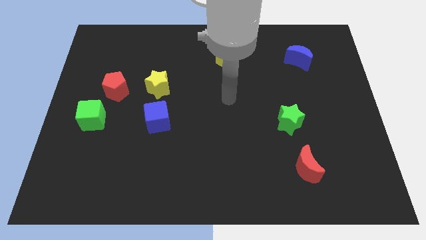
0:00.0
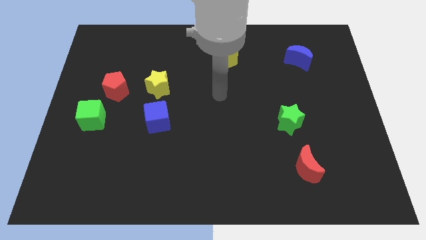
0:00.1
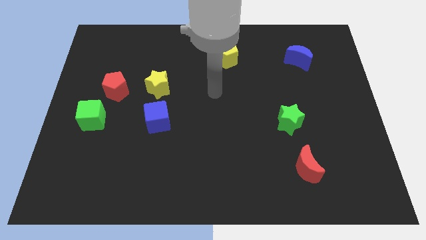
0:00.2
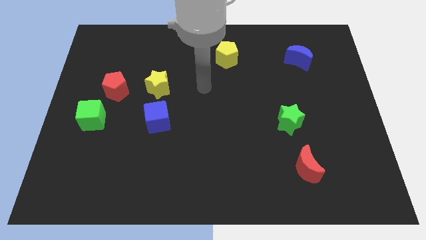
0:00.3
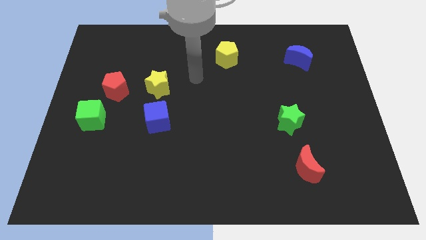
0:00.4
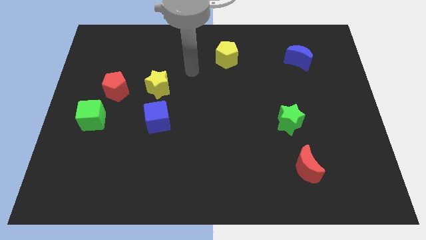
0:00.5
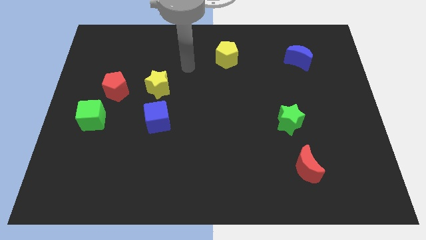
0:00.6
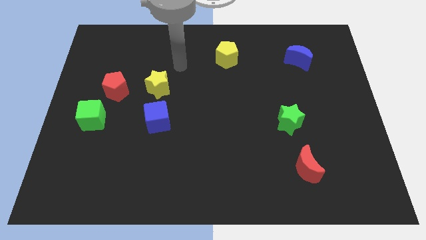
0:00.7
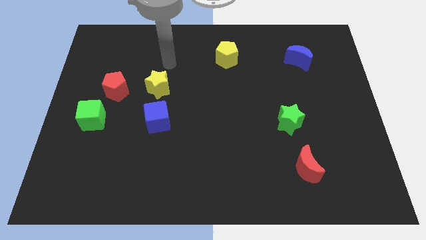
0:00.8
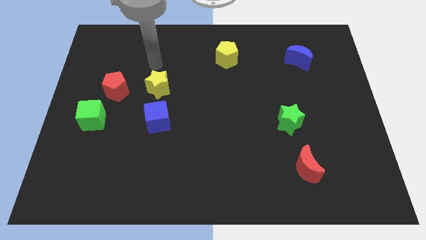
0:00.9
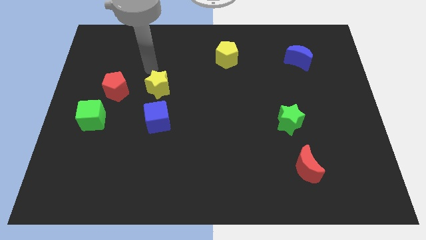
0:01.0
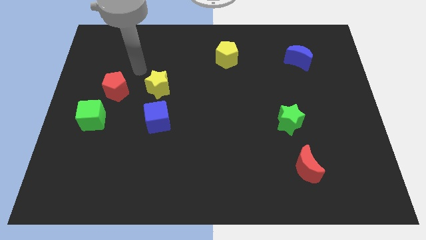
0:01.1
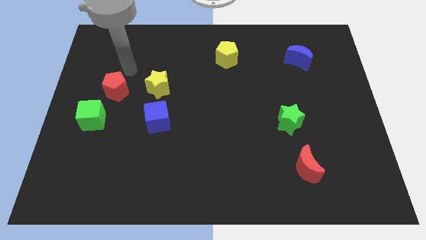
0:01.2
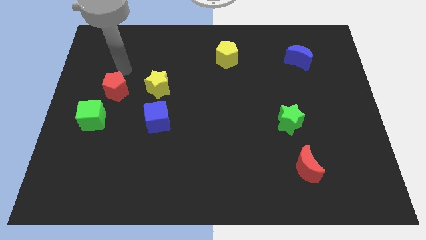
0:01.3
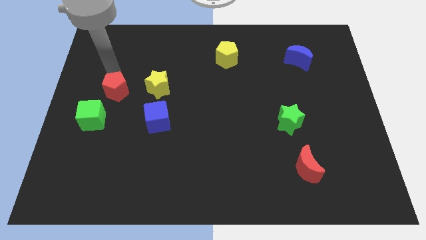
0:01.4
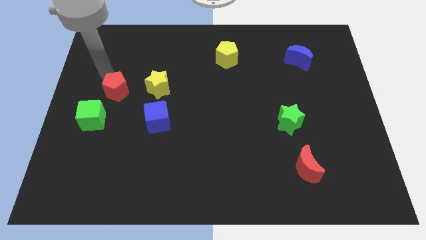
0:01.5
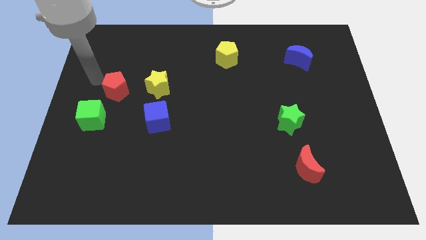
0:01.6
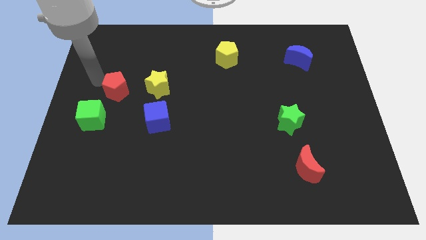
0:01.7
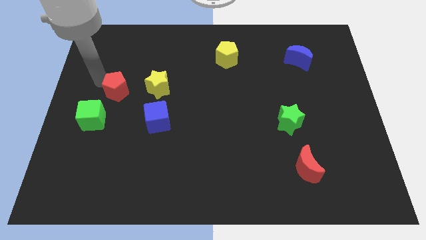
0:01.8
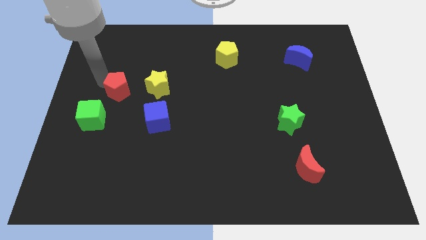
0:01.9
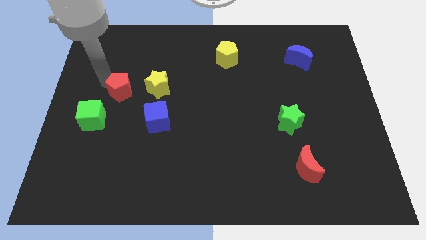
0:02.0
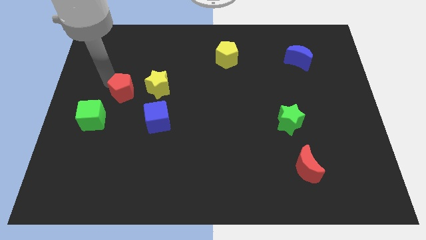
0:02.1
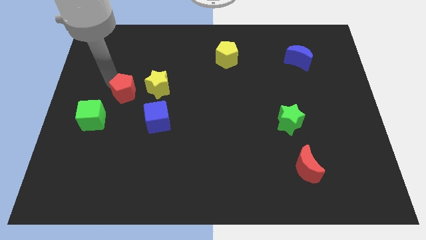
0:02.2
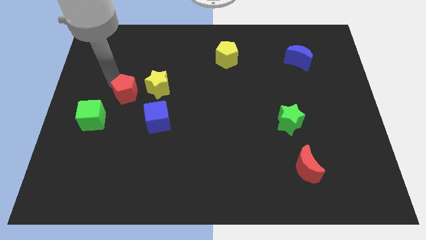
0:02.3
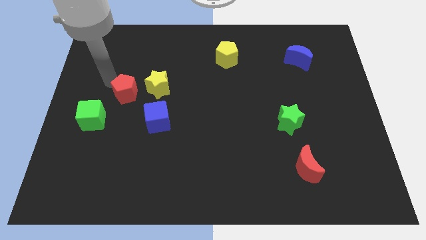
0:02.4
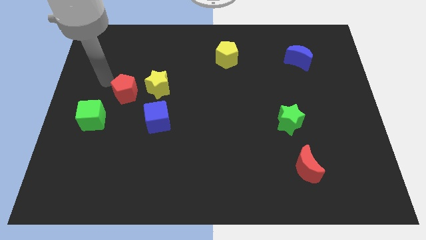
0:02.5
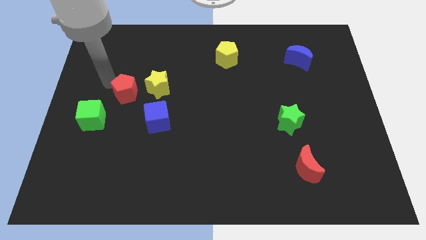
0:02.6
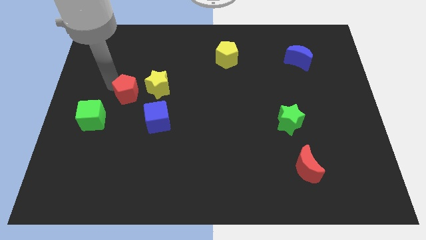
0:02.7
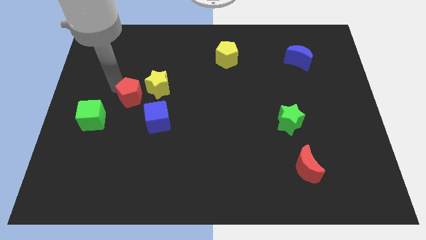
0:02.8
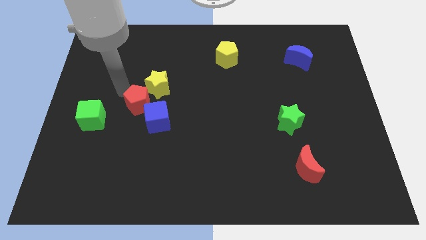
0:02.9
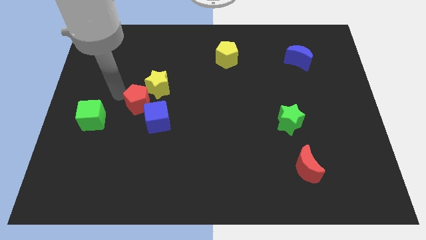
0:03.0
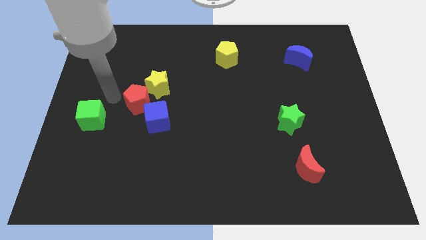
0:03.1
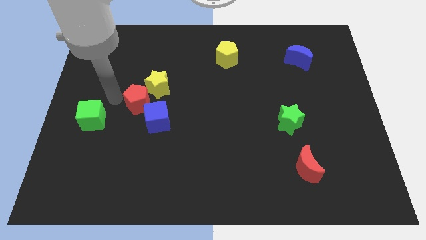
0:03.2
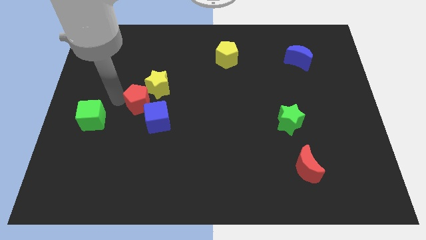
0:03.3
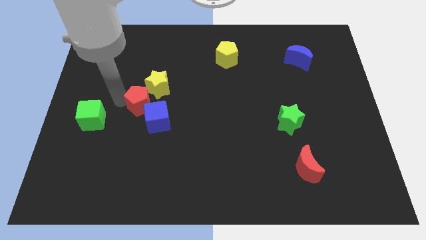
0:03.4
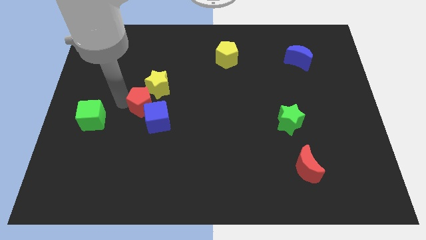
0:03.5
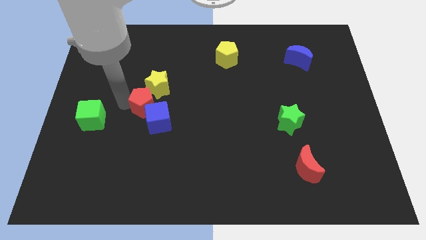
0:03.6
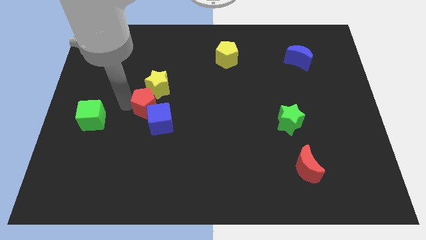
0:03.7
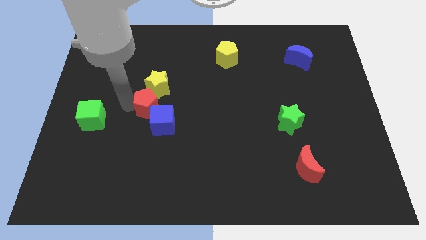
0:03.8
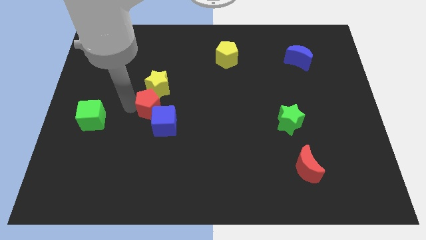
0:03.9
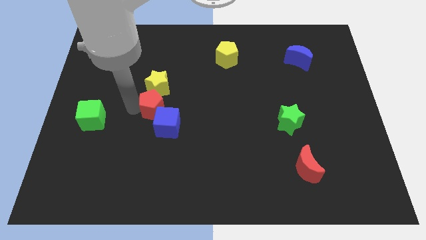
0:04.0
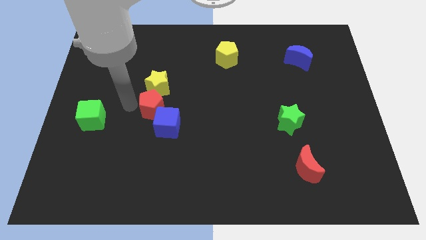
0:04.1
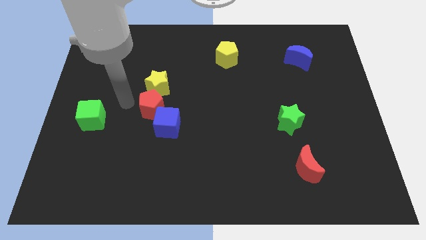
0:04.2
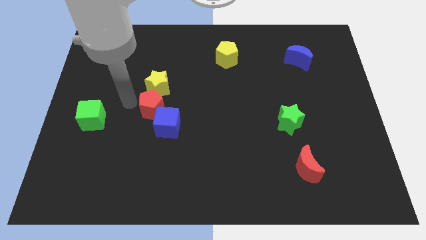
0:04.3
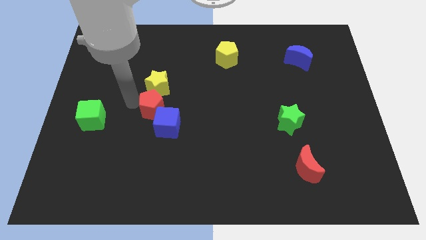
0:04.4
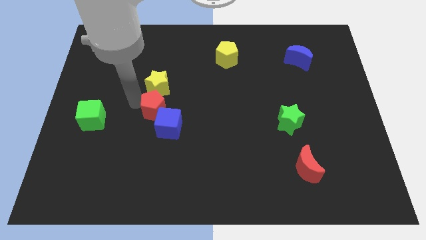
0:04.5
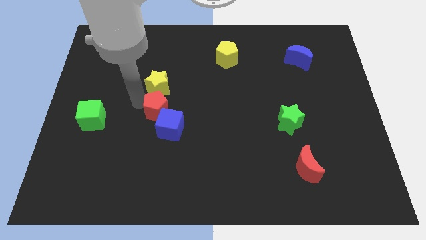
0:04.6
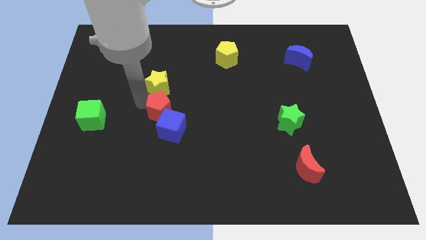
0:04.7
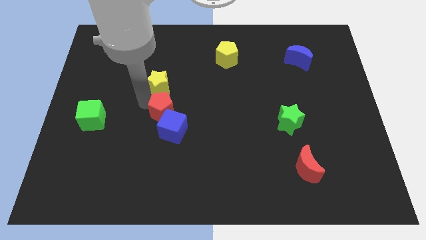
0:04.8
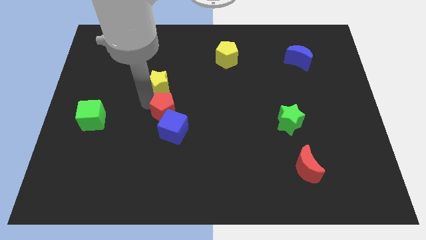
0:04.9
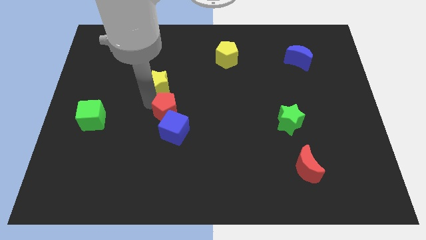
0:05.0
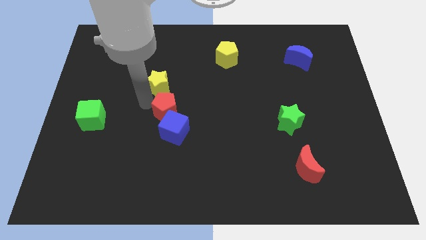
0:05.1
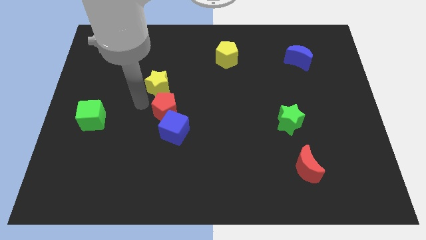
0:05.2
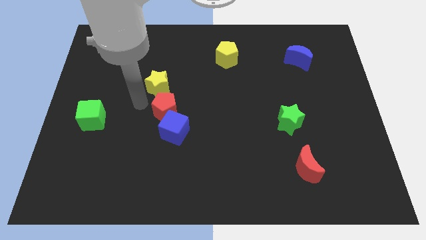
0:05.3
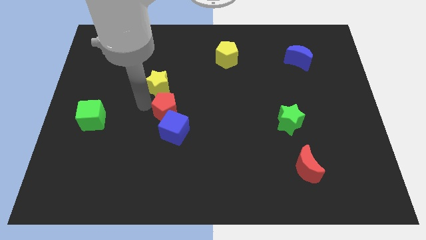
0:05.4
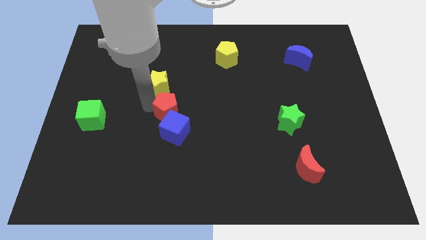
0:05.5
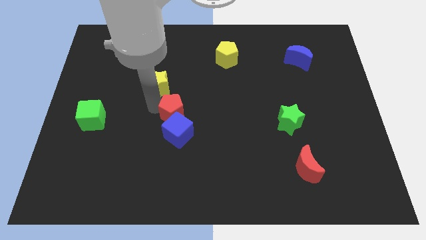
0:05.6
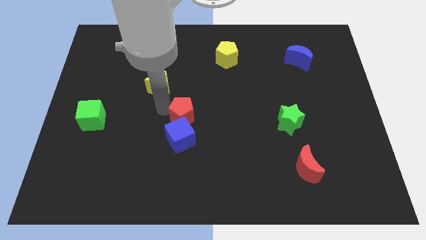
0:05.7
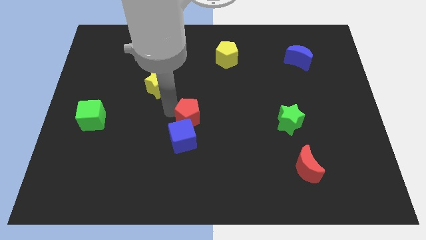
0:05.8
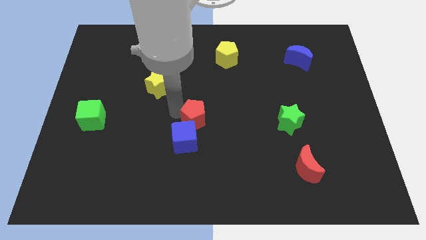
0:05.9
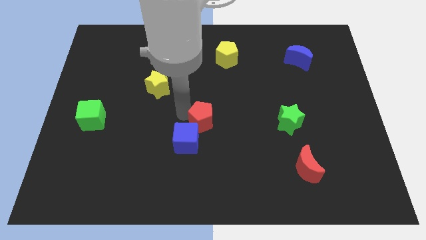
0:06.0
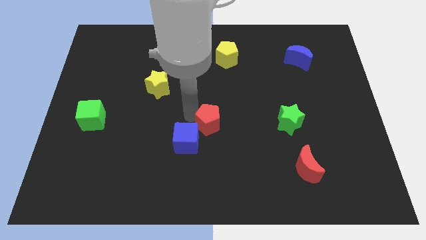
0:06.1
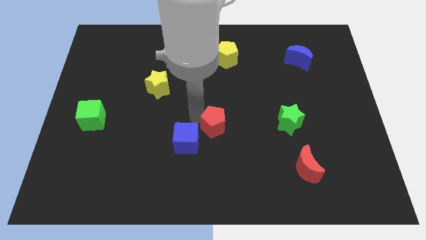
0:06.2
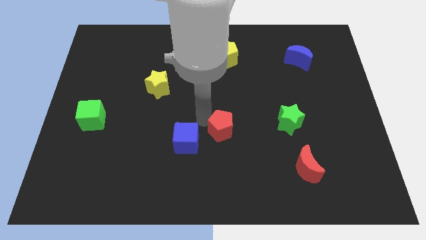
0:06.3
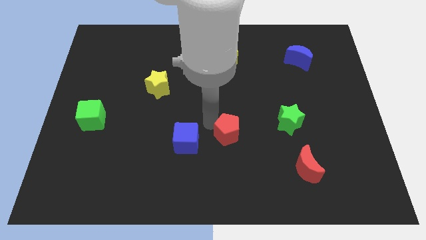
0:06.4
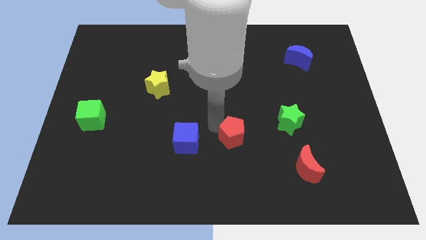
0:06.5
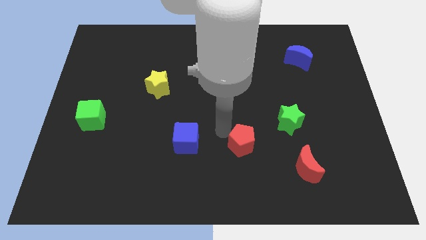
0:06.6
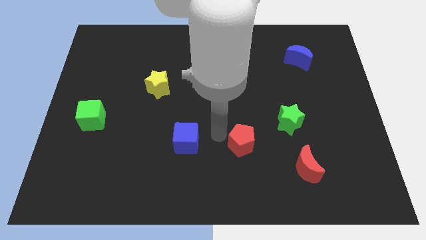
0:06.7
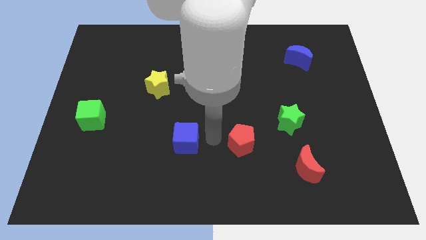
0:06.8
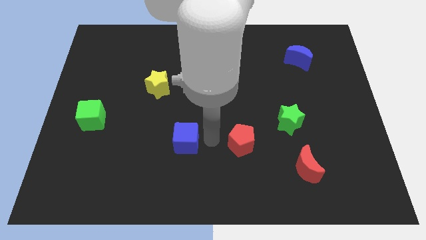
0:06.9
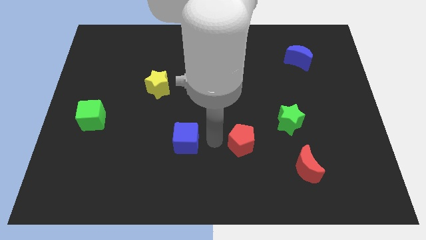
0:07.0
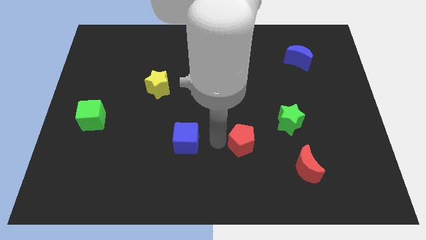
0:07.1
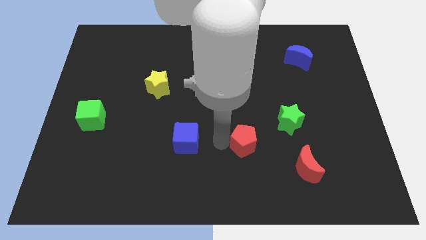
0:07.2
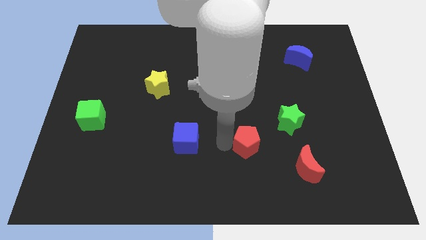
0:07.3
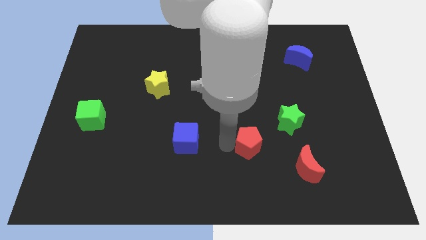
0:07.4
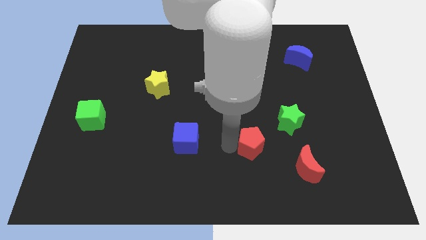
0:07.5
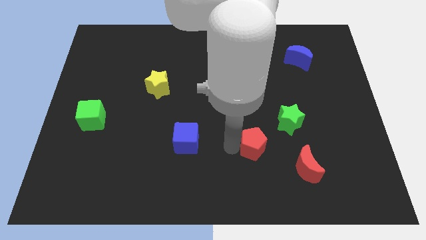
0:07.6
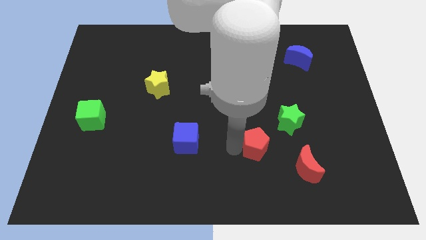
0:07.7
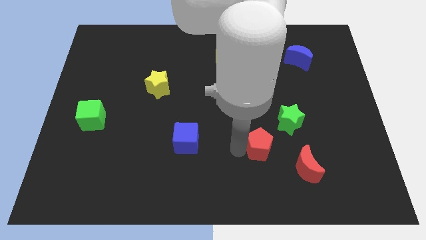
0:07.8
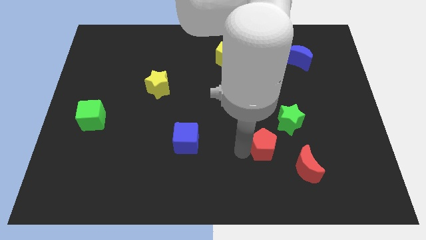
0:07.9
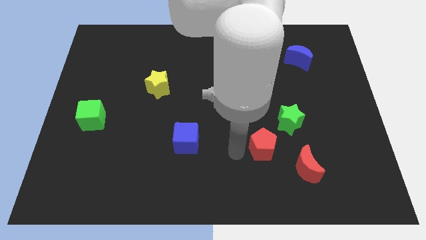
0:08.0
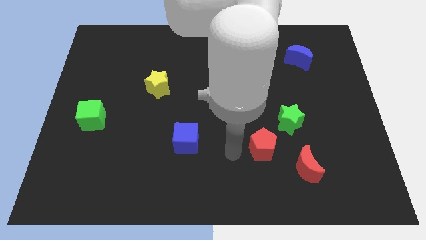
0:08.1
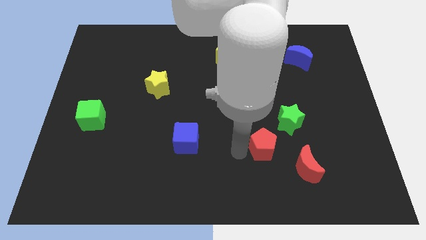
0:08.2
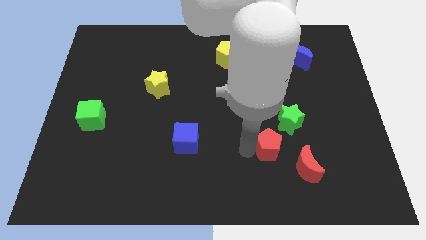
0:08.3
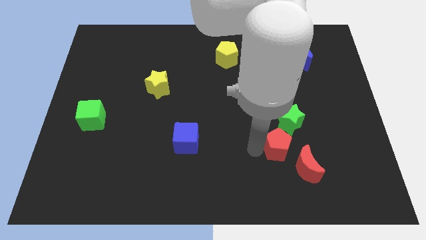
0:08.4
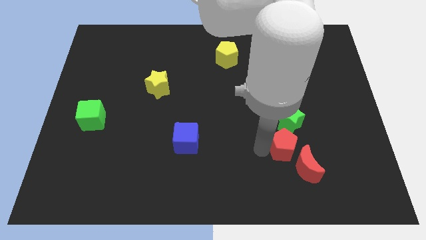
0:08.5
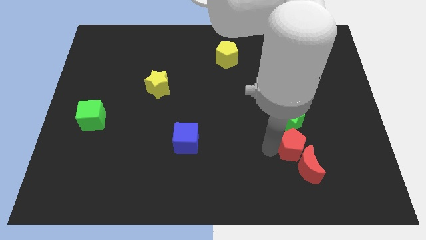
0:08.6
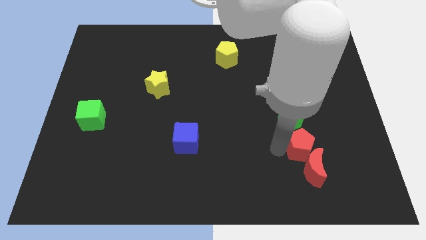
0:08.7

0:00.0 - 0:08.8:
move the red pentagon to the bottom right of the green star
